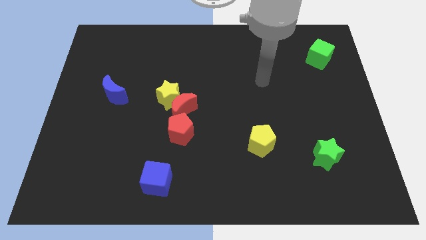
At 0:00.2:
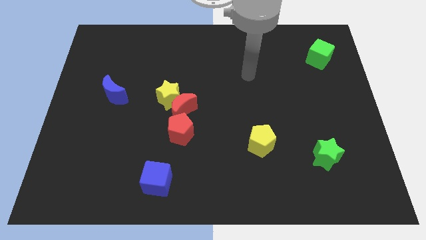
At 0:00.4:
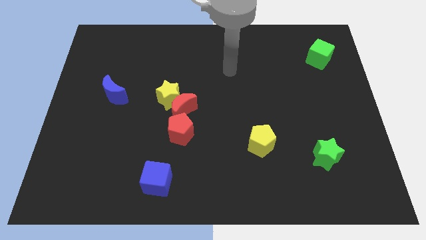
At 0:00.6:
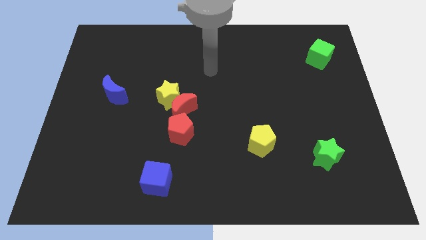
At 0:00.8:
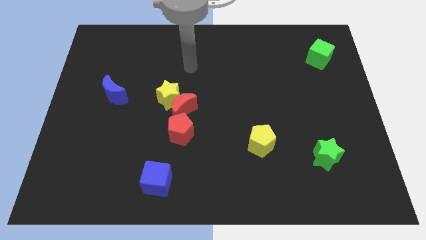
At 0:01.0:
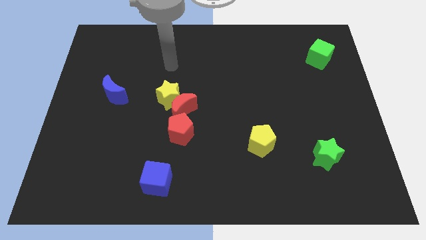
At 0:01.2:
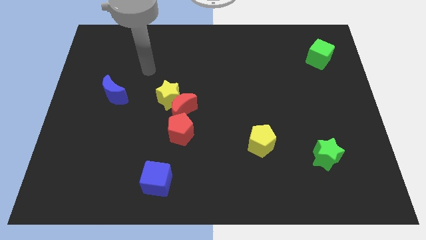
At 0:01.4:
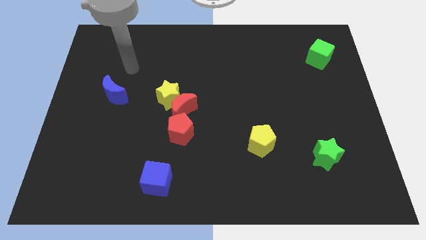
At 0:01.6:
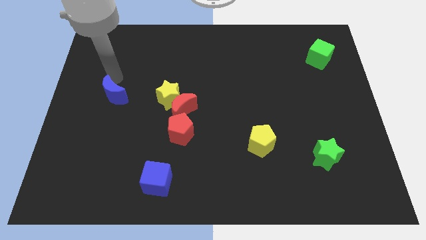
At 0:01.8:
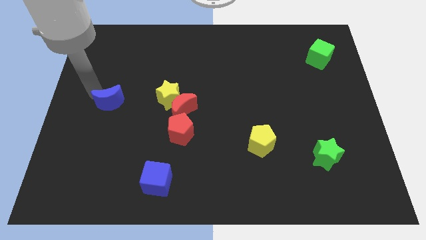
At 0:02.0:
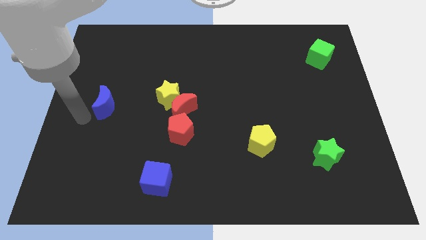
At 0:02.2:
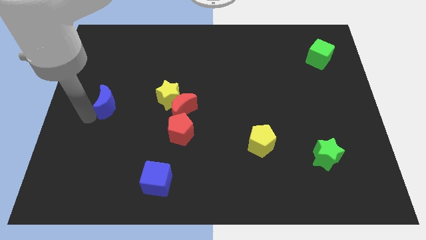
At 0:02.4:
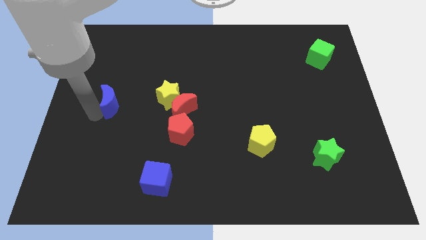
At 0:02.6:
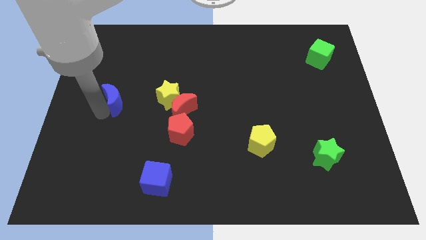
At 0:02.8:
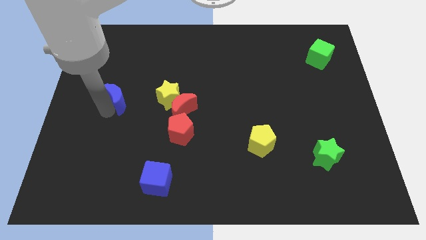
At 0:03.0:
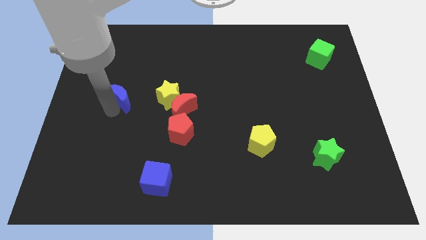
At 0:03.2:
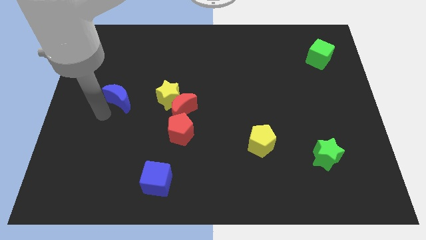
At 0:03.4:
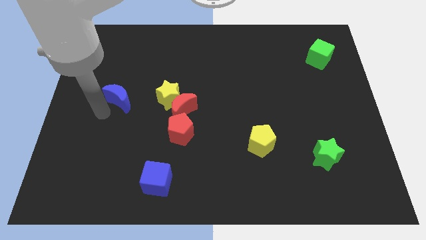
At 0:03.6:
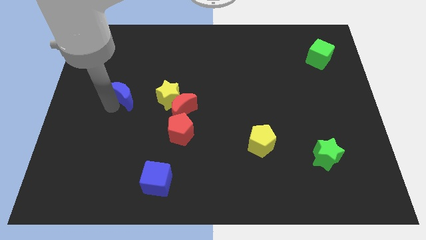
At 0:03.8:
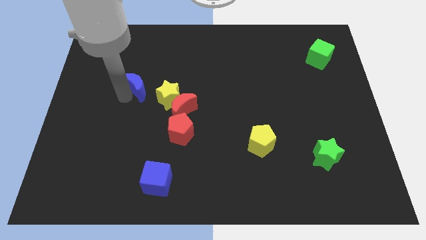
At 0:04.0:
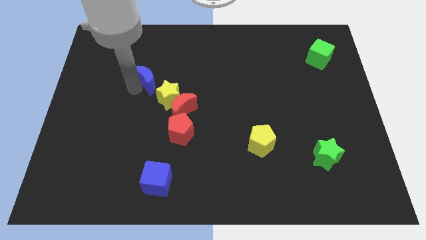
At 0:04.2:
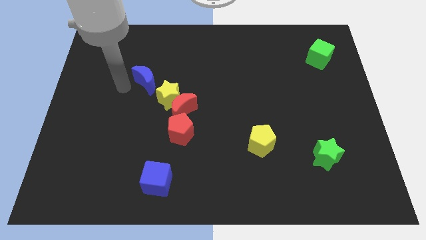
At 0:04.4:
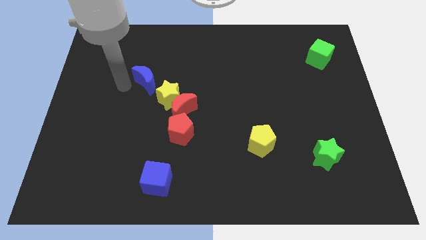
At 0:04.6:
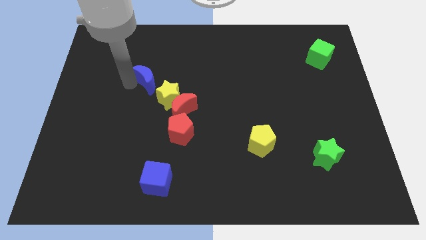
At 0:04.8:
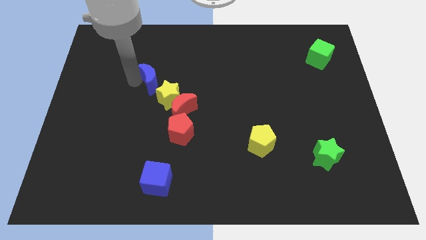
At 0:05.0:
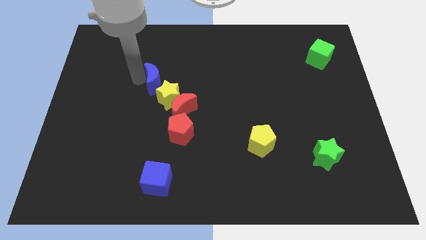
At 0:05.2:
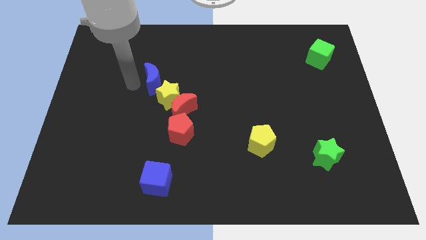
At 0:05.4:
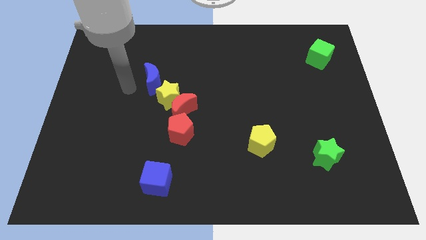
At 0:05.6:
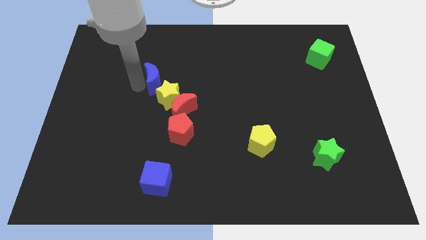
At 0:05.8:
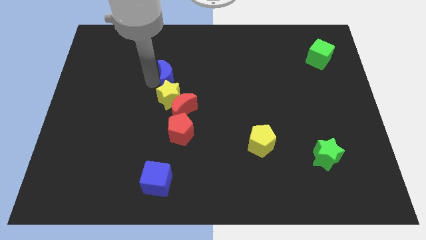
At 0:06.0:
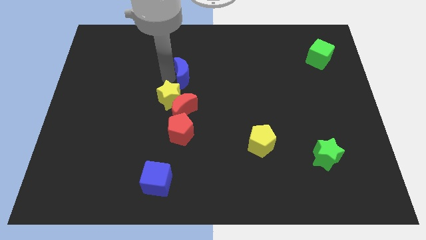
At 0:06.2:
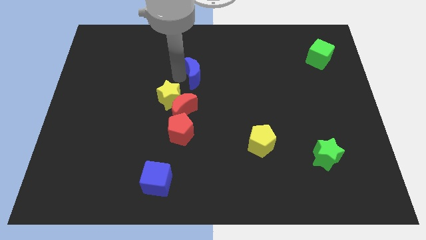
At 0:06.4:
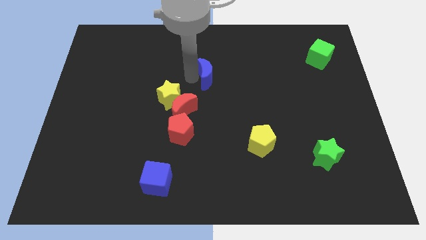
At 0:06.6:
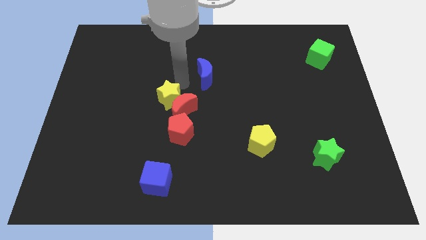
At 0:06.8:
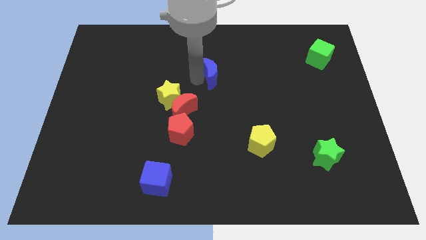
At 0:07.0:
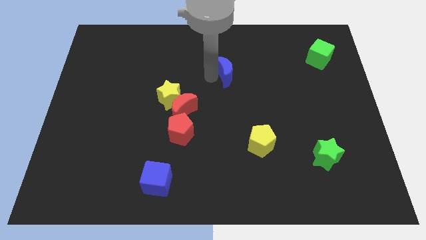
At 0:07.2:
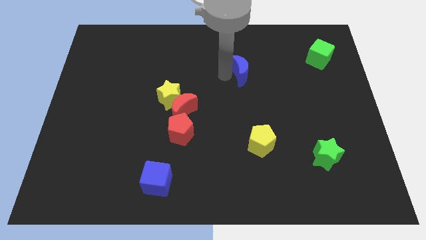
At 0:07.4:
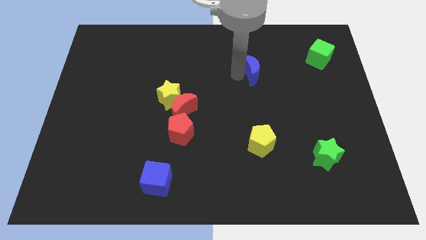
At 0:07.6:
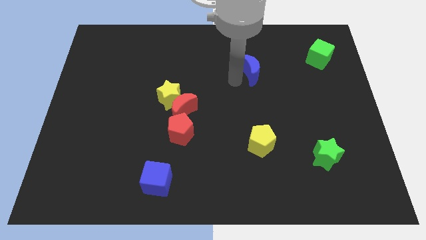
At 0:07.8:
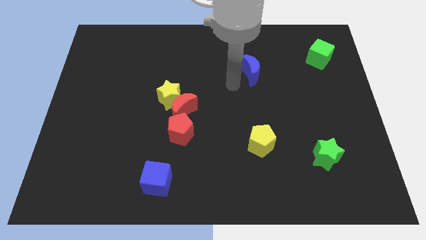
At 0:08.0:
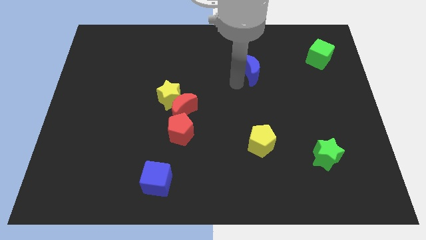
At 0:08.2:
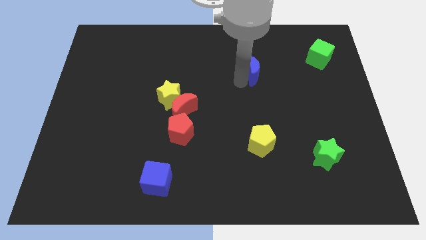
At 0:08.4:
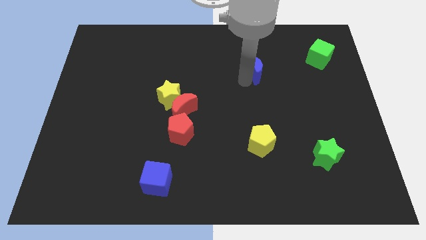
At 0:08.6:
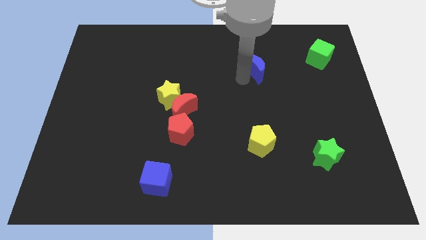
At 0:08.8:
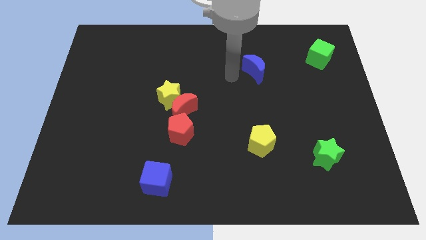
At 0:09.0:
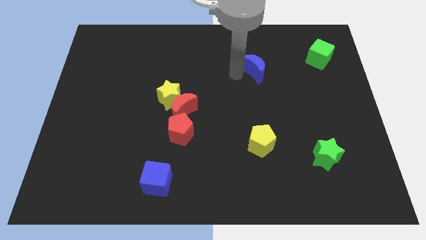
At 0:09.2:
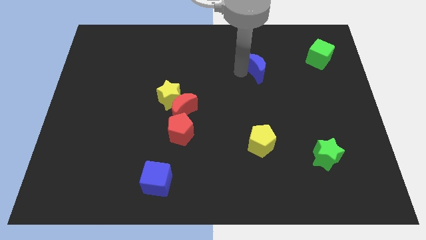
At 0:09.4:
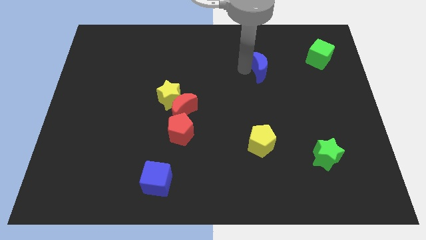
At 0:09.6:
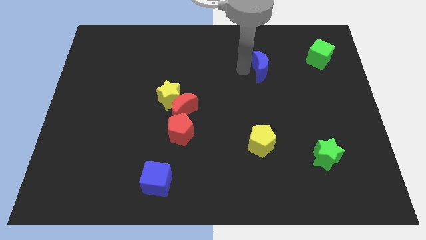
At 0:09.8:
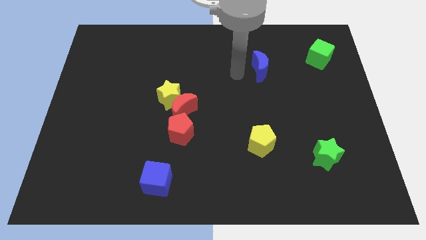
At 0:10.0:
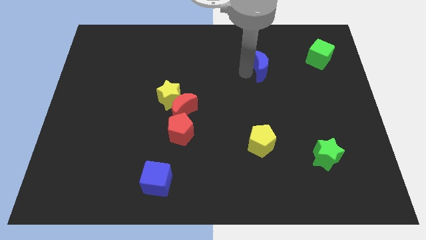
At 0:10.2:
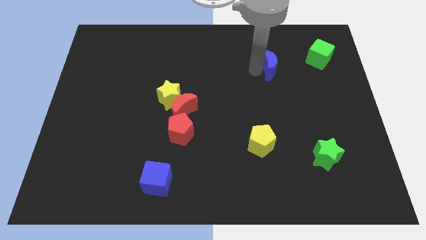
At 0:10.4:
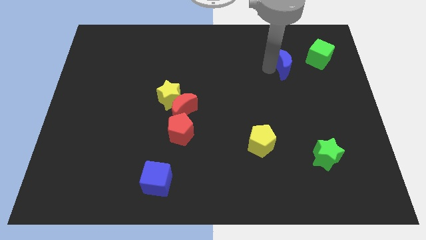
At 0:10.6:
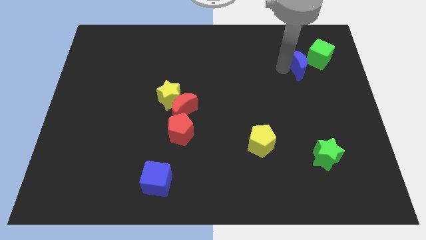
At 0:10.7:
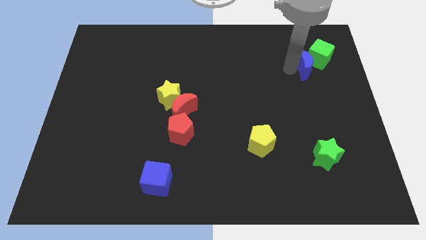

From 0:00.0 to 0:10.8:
put the blue moon to the green cube

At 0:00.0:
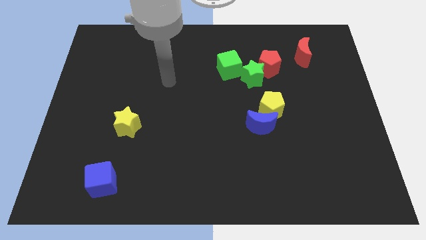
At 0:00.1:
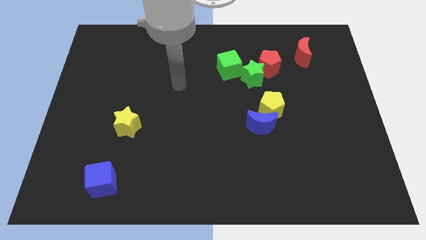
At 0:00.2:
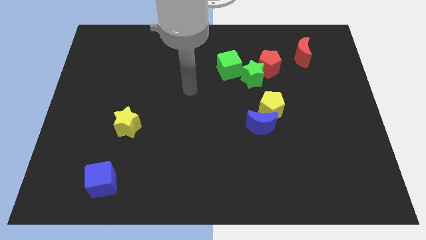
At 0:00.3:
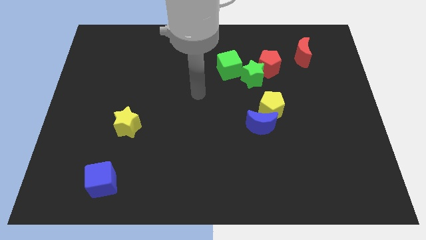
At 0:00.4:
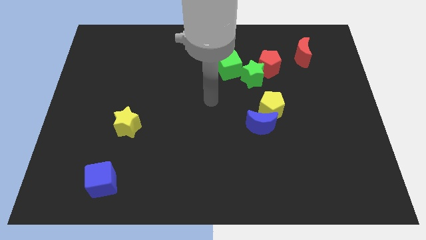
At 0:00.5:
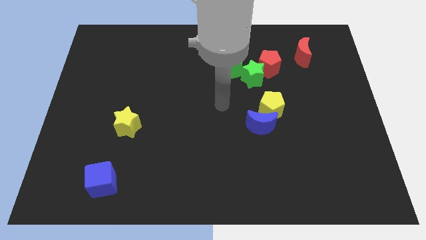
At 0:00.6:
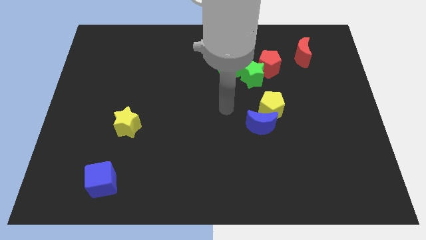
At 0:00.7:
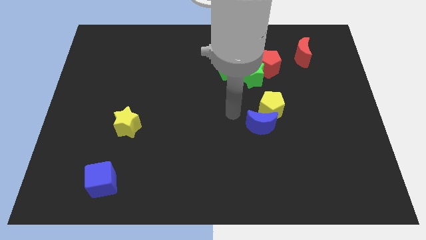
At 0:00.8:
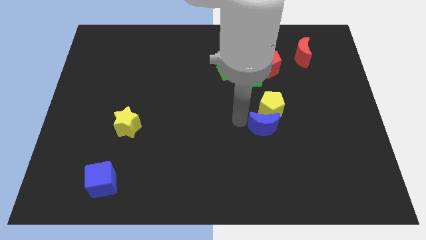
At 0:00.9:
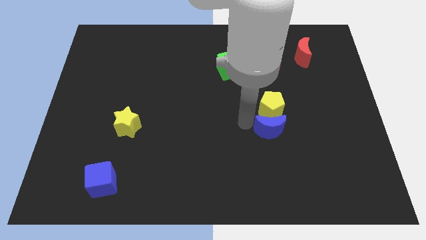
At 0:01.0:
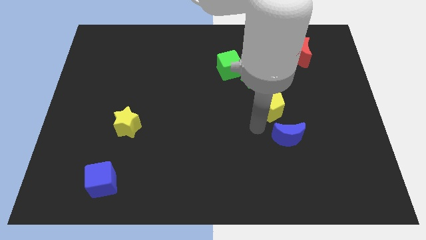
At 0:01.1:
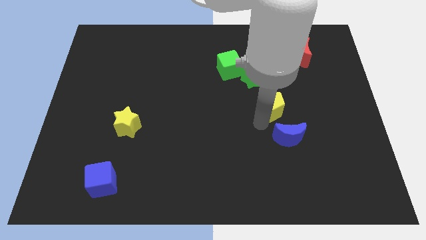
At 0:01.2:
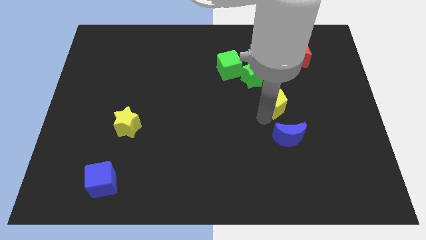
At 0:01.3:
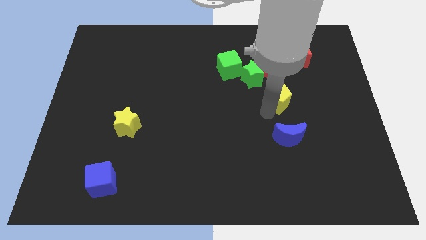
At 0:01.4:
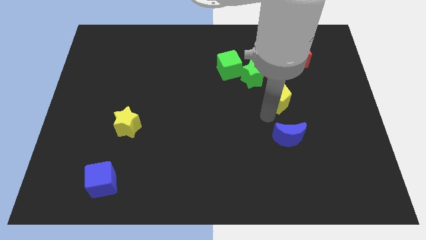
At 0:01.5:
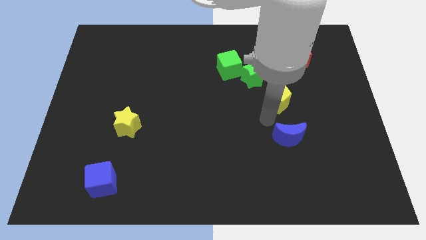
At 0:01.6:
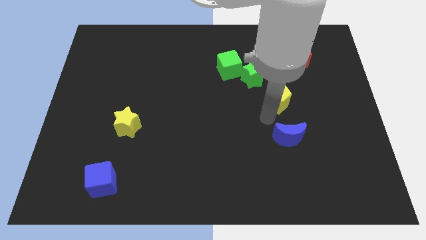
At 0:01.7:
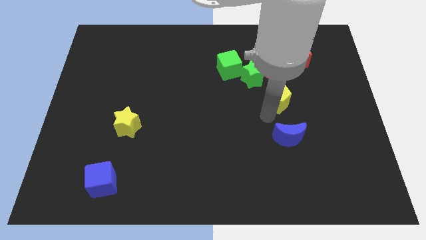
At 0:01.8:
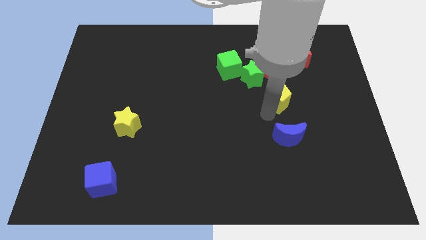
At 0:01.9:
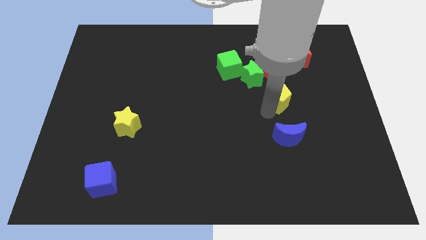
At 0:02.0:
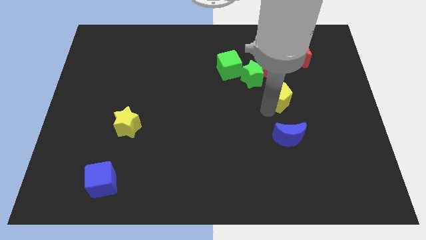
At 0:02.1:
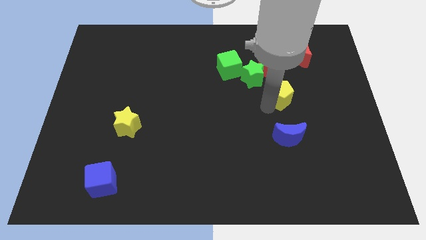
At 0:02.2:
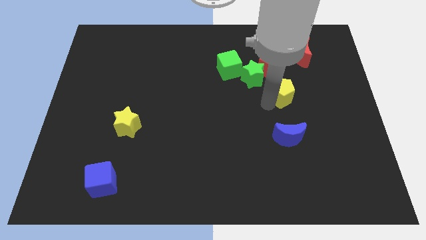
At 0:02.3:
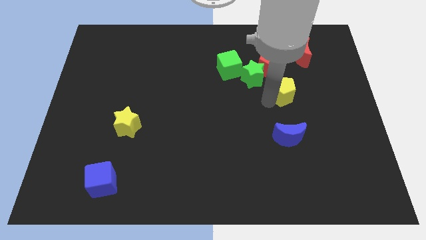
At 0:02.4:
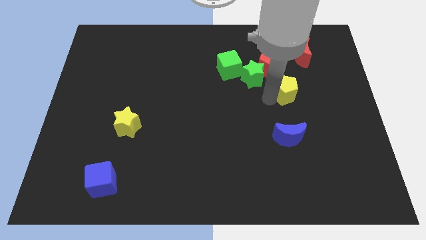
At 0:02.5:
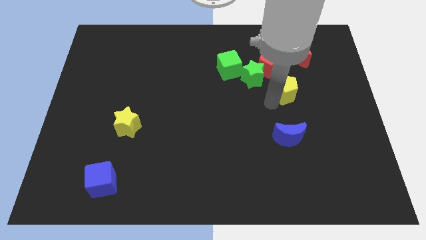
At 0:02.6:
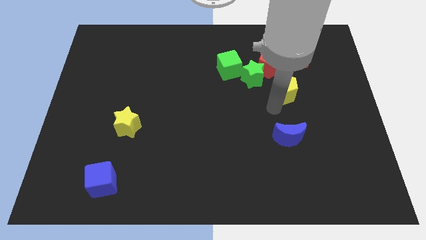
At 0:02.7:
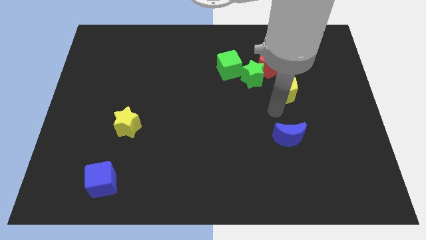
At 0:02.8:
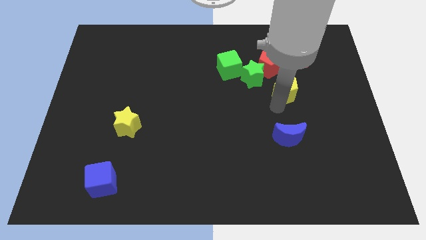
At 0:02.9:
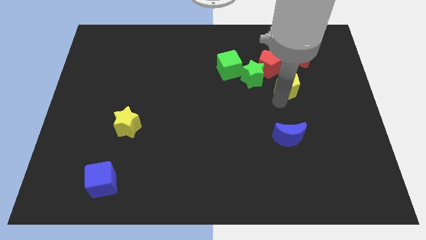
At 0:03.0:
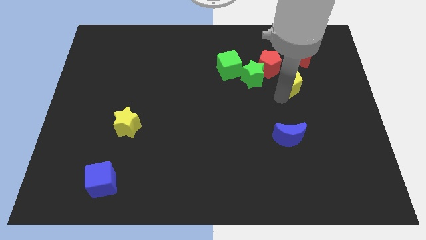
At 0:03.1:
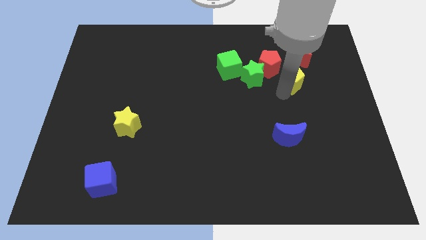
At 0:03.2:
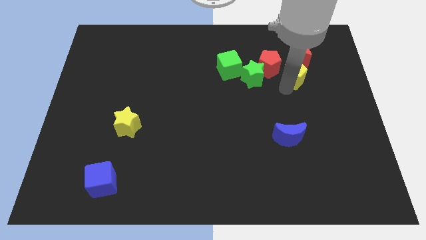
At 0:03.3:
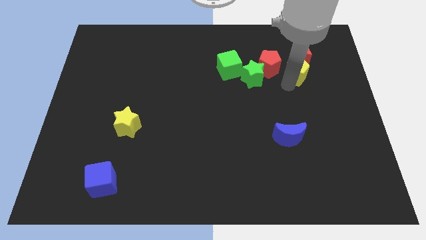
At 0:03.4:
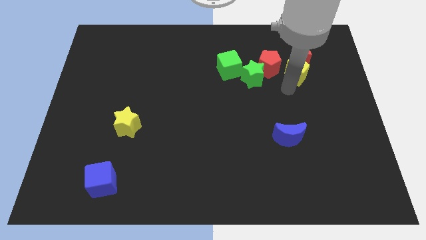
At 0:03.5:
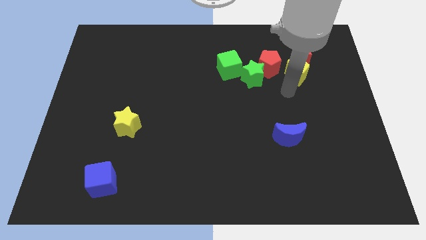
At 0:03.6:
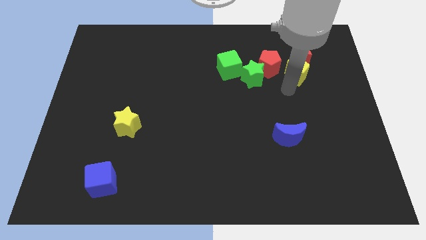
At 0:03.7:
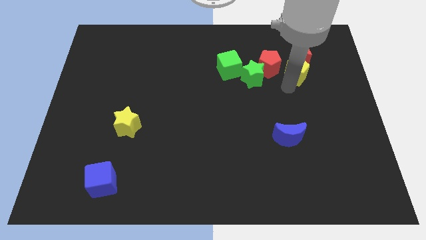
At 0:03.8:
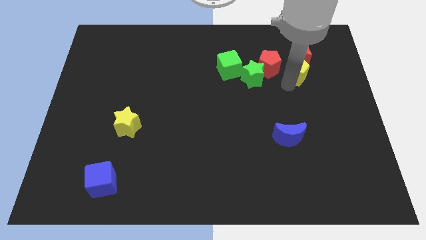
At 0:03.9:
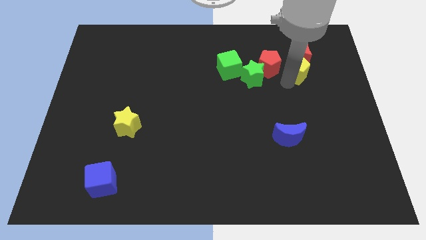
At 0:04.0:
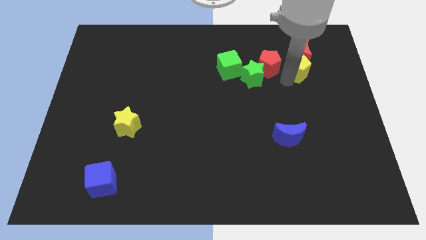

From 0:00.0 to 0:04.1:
push the yellow pentagon towards the red moon
